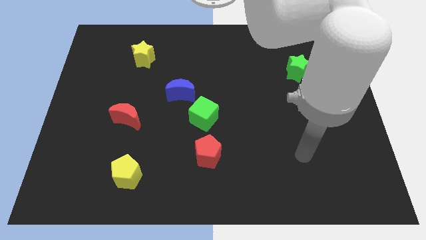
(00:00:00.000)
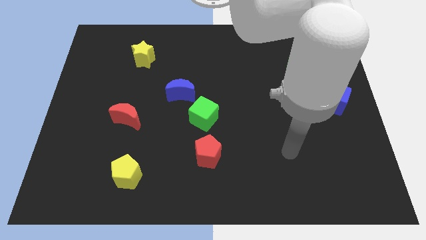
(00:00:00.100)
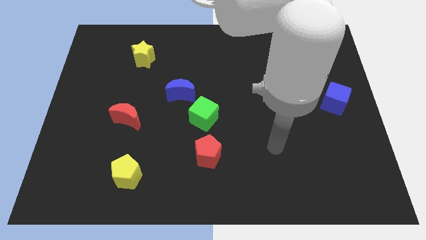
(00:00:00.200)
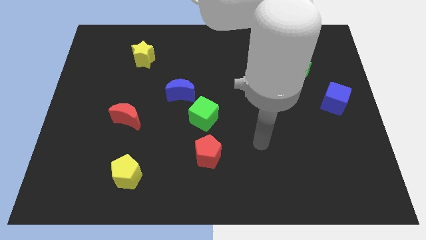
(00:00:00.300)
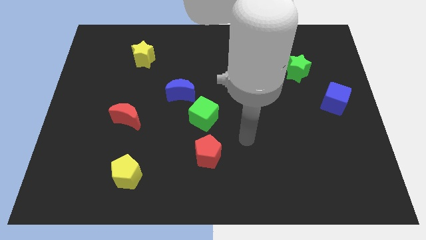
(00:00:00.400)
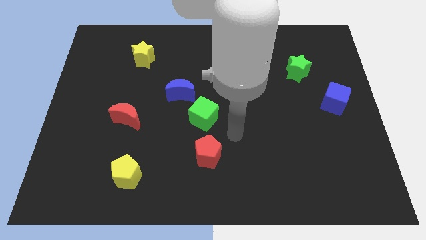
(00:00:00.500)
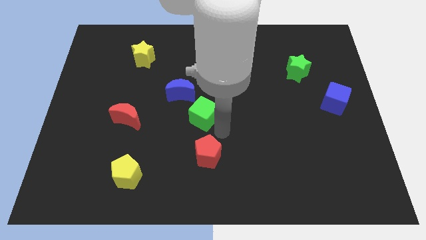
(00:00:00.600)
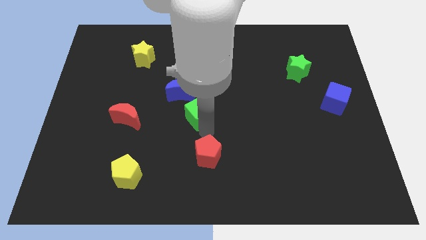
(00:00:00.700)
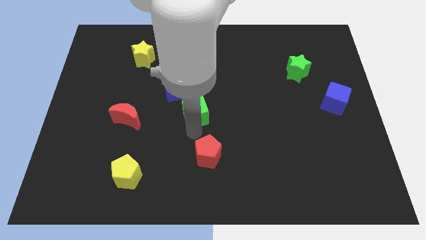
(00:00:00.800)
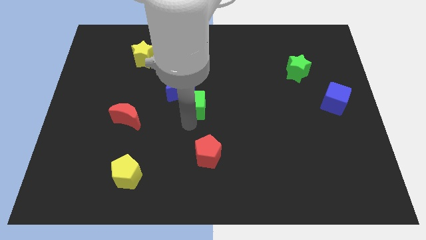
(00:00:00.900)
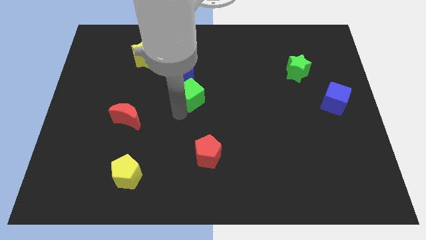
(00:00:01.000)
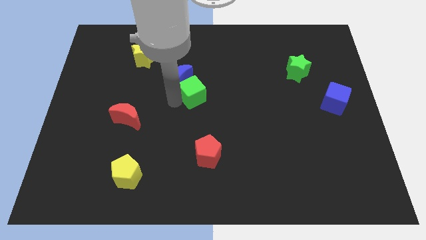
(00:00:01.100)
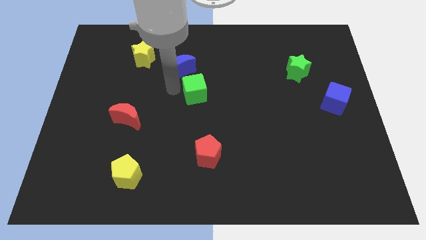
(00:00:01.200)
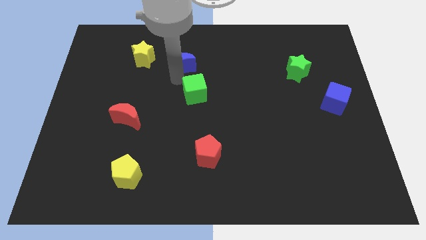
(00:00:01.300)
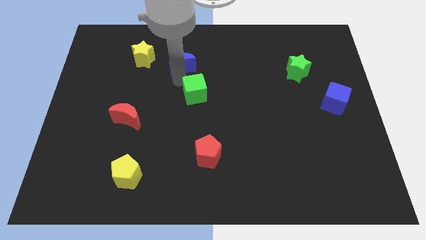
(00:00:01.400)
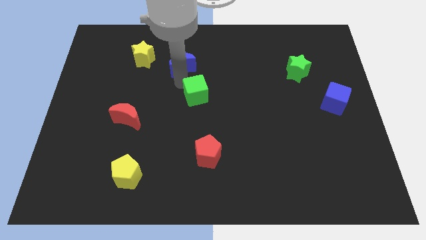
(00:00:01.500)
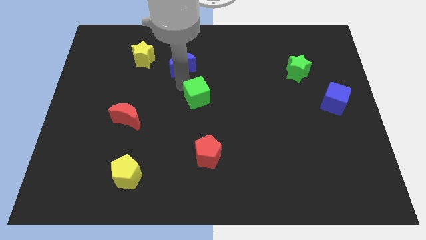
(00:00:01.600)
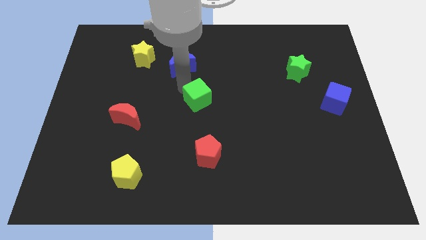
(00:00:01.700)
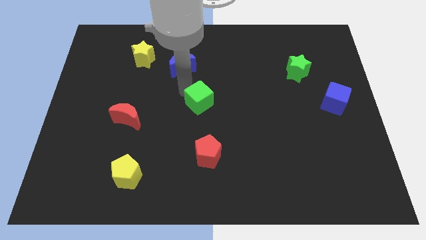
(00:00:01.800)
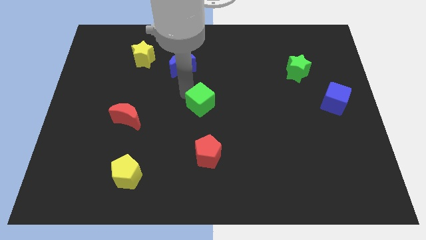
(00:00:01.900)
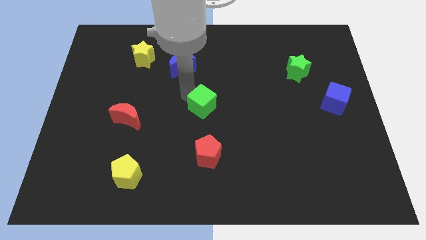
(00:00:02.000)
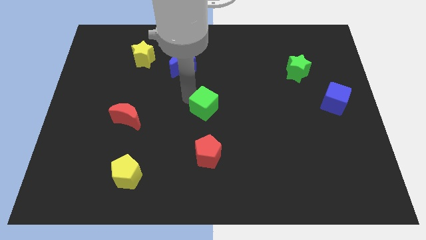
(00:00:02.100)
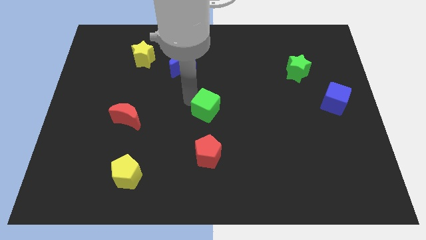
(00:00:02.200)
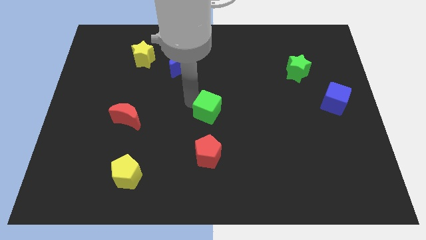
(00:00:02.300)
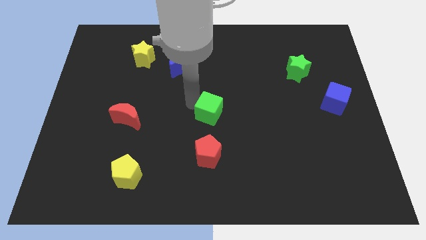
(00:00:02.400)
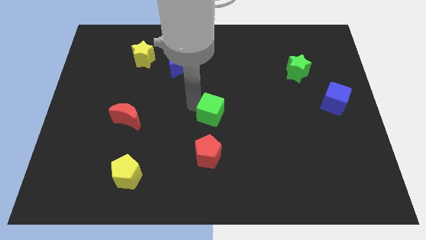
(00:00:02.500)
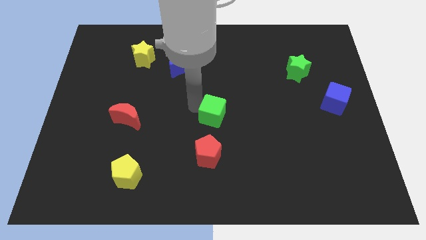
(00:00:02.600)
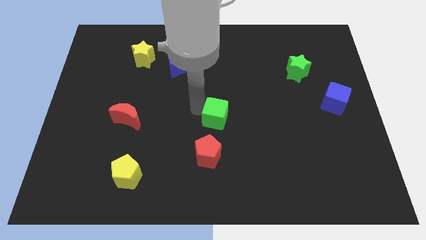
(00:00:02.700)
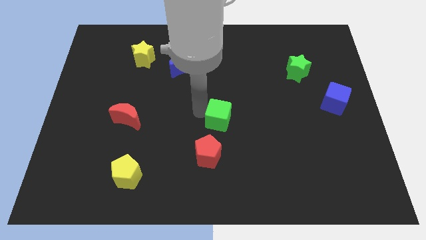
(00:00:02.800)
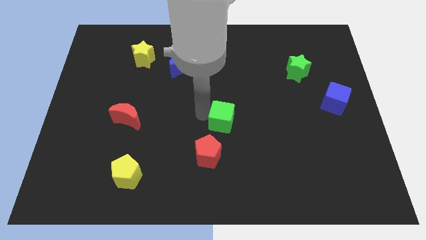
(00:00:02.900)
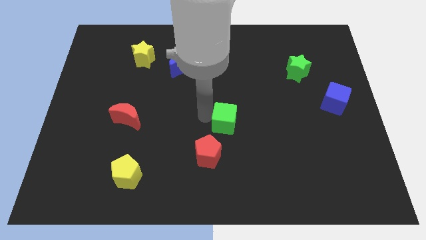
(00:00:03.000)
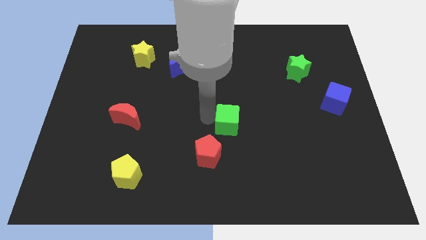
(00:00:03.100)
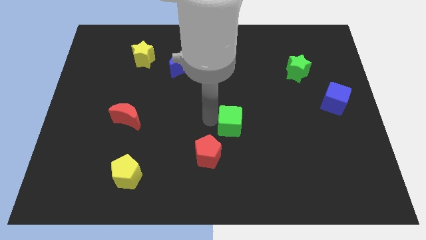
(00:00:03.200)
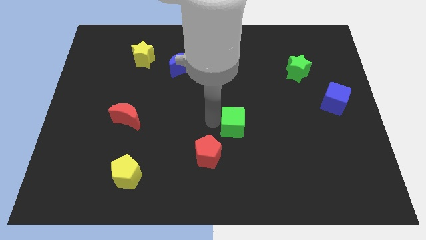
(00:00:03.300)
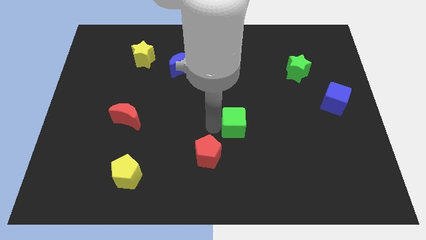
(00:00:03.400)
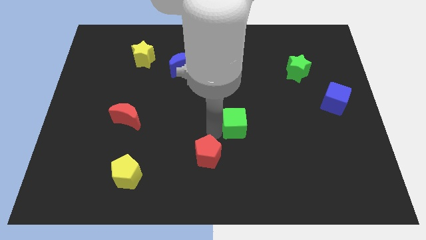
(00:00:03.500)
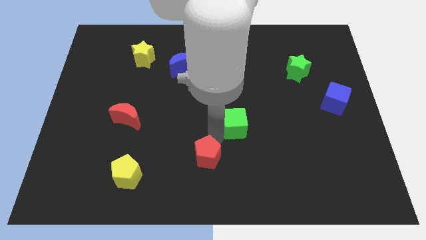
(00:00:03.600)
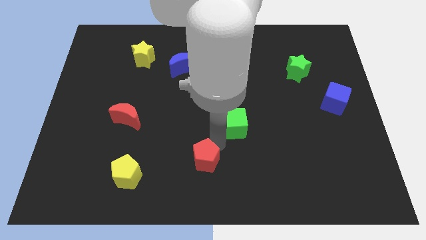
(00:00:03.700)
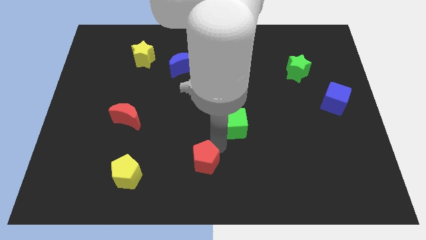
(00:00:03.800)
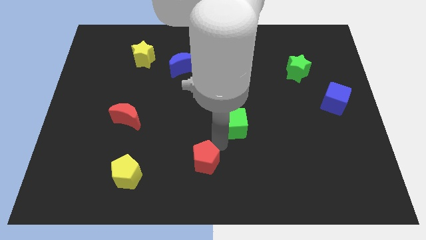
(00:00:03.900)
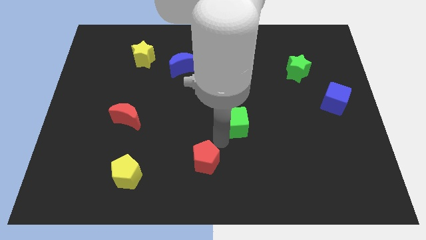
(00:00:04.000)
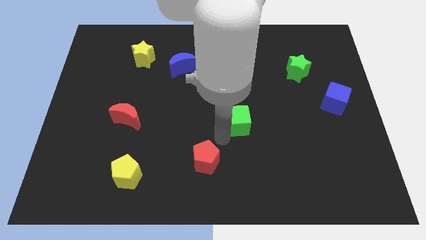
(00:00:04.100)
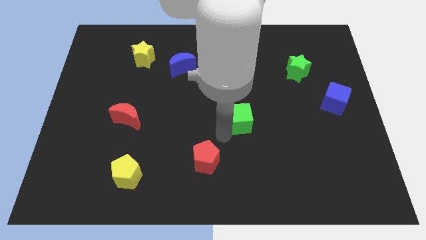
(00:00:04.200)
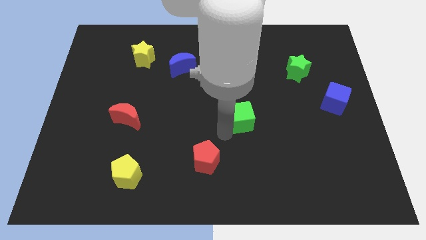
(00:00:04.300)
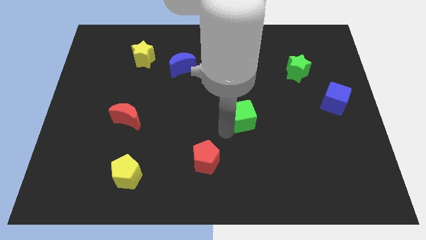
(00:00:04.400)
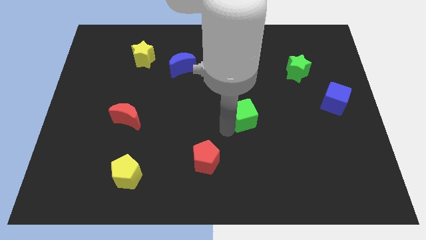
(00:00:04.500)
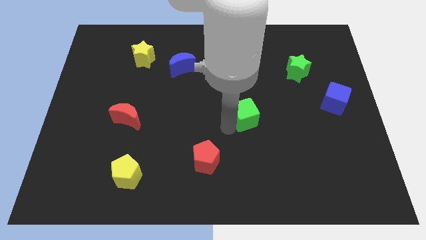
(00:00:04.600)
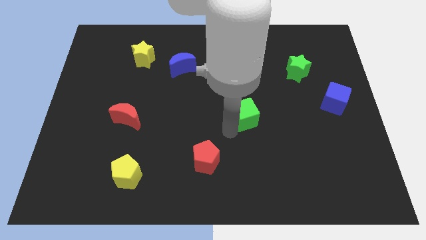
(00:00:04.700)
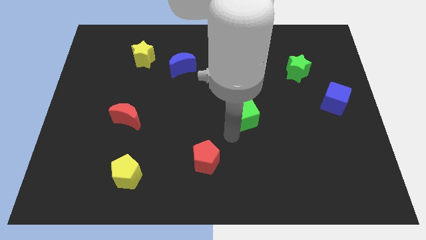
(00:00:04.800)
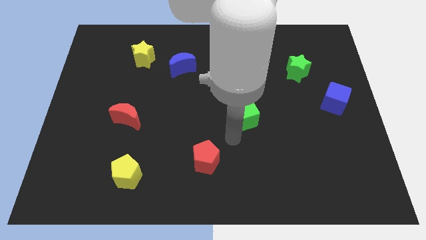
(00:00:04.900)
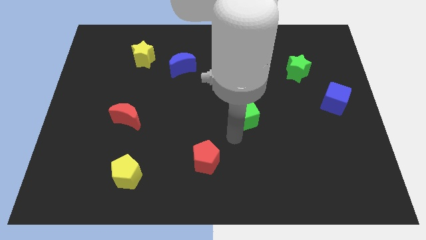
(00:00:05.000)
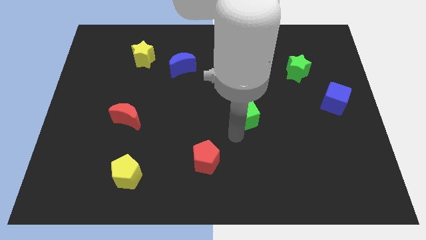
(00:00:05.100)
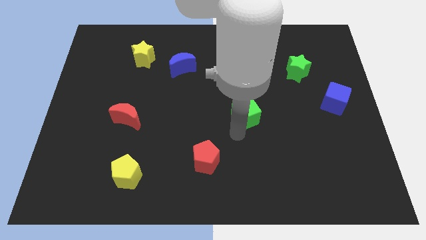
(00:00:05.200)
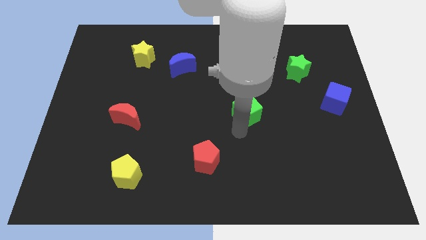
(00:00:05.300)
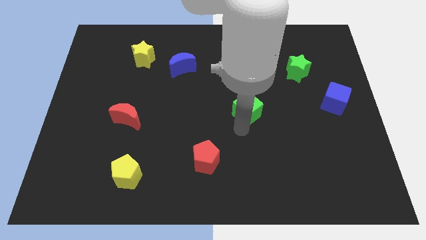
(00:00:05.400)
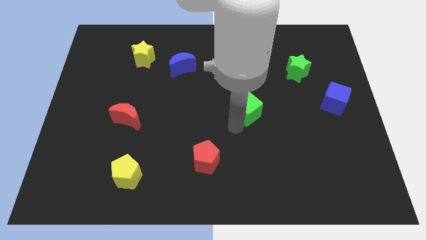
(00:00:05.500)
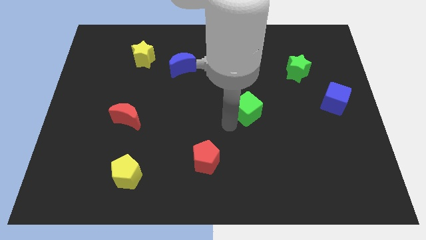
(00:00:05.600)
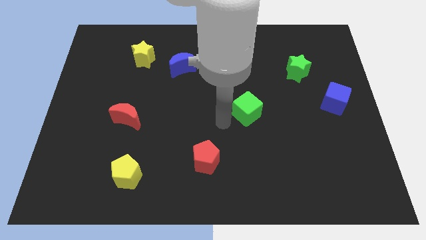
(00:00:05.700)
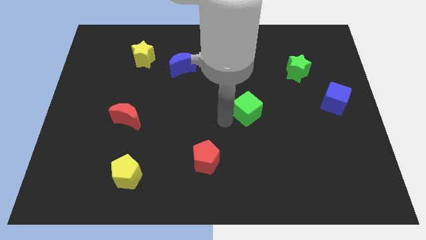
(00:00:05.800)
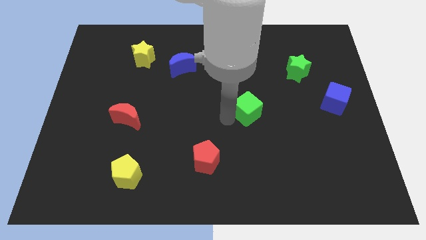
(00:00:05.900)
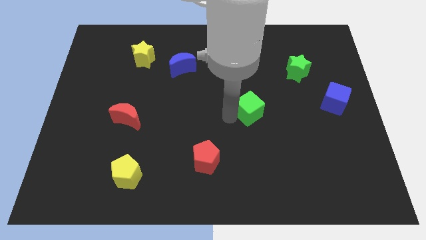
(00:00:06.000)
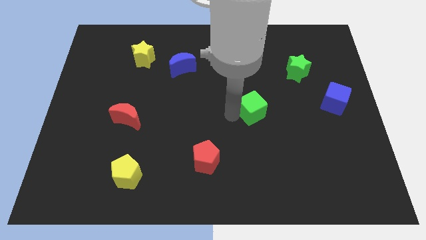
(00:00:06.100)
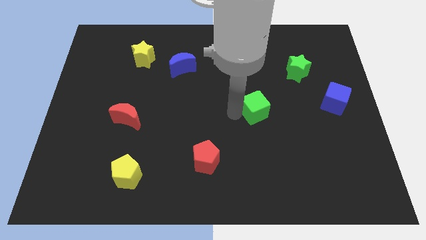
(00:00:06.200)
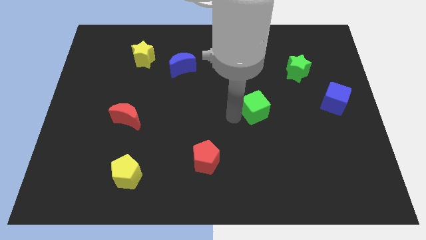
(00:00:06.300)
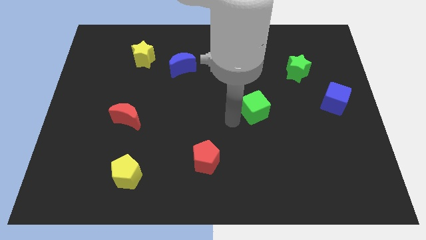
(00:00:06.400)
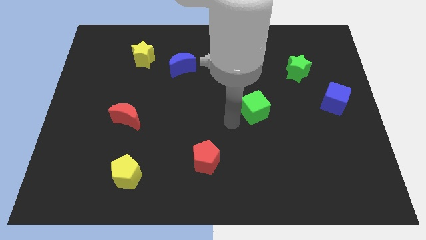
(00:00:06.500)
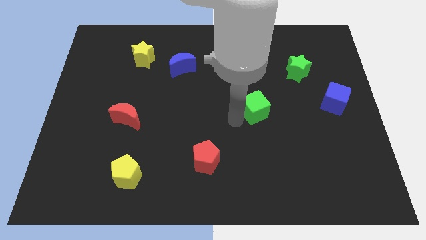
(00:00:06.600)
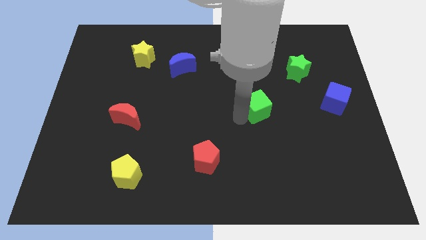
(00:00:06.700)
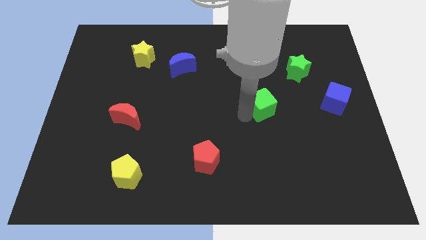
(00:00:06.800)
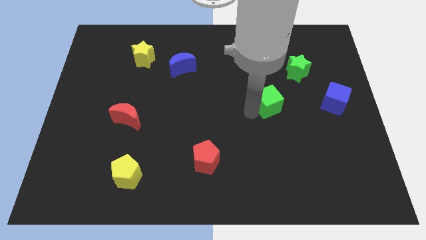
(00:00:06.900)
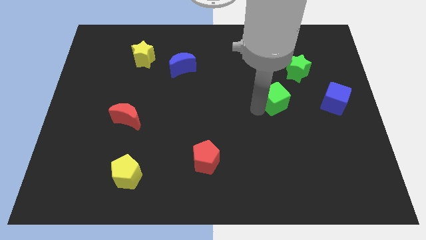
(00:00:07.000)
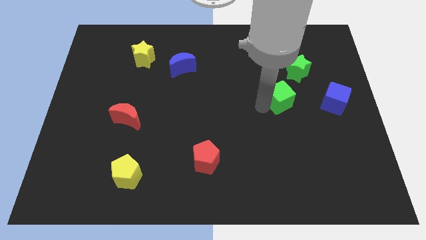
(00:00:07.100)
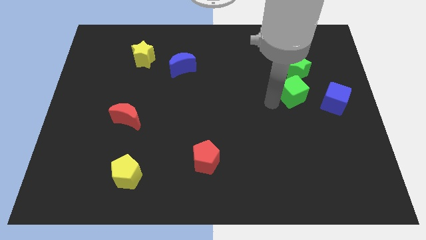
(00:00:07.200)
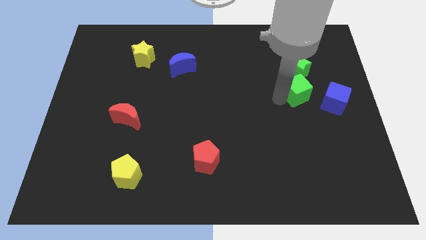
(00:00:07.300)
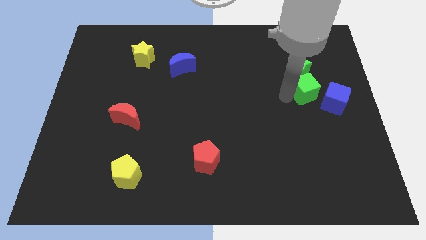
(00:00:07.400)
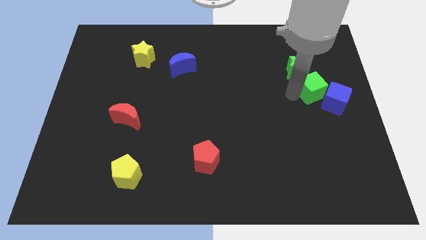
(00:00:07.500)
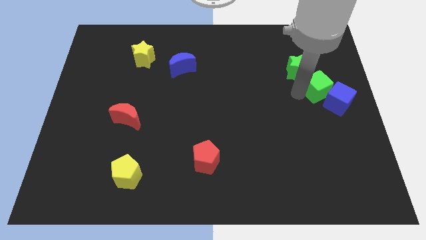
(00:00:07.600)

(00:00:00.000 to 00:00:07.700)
put the green cube to the right side of the board
